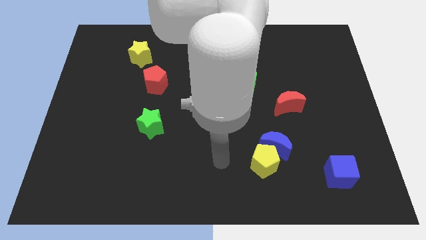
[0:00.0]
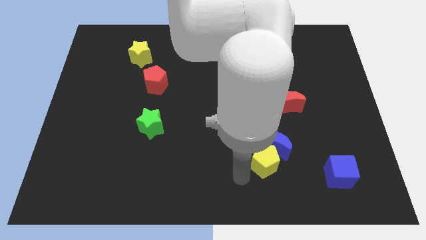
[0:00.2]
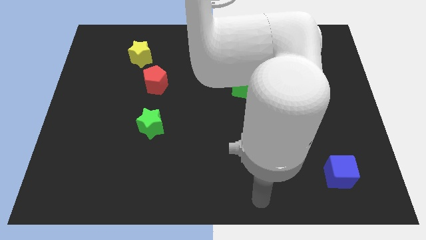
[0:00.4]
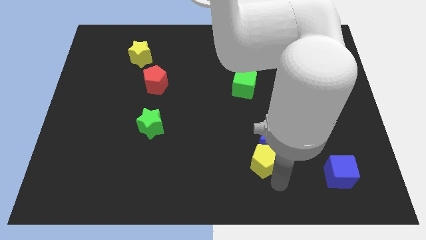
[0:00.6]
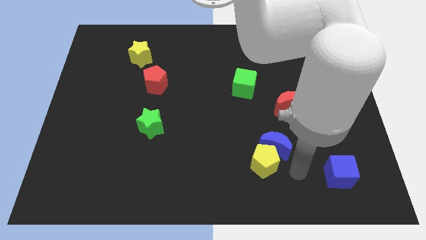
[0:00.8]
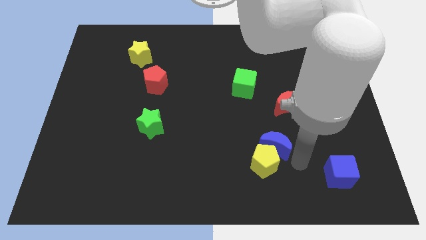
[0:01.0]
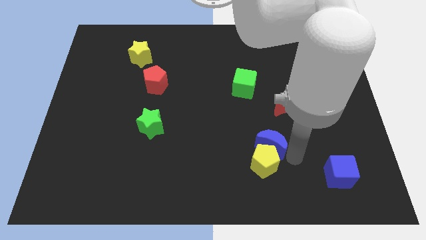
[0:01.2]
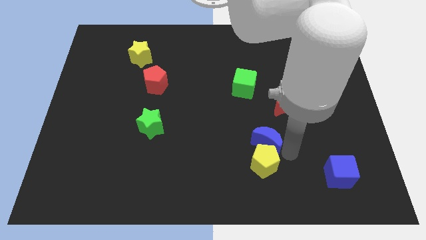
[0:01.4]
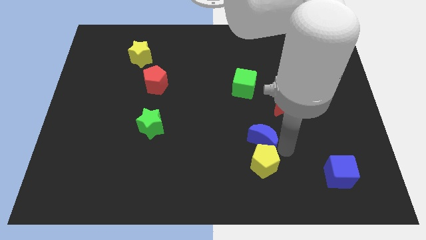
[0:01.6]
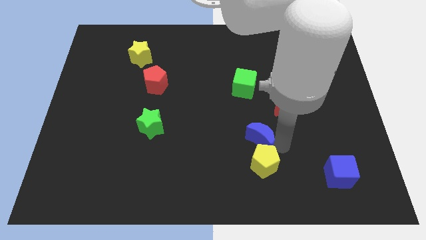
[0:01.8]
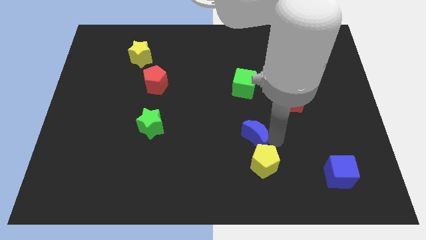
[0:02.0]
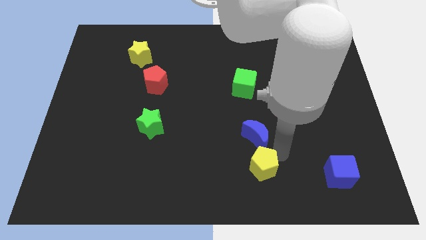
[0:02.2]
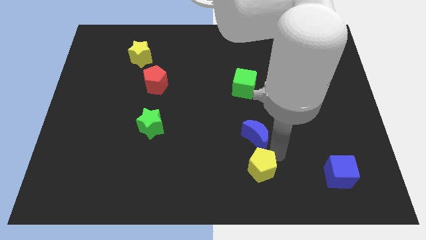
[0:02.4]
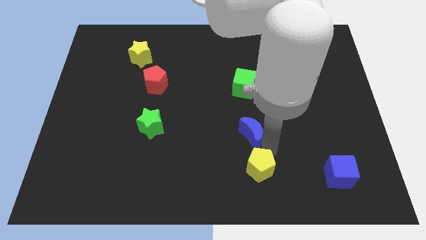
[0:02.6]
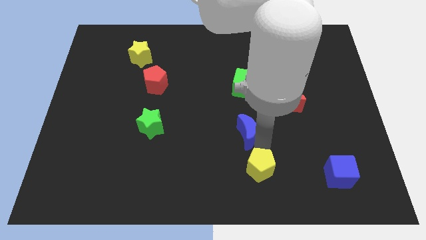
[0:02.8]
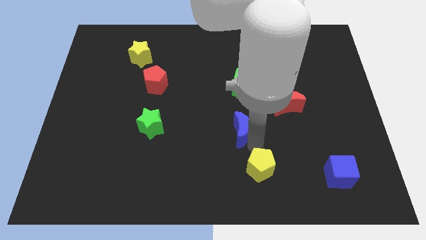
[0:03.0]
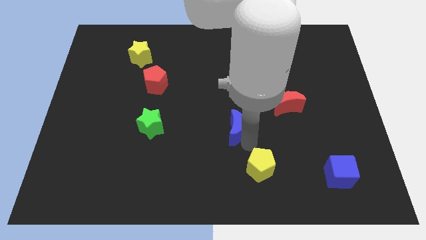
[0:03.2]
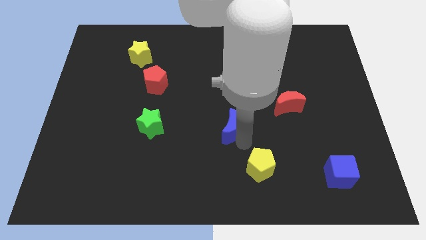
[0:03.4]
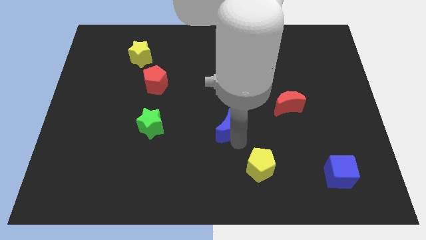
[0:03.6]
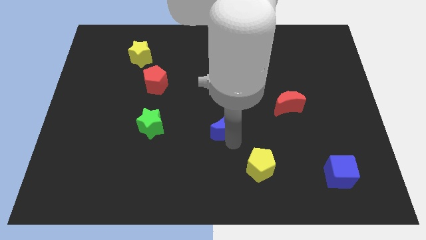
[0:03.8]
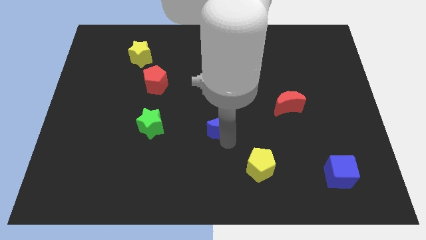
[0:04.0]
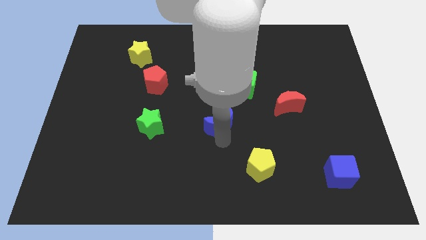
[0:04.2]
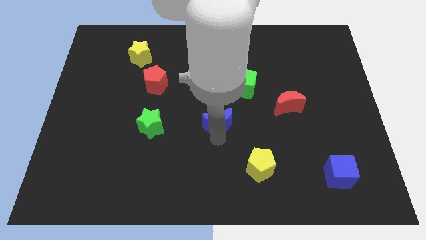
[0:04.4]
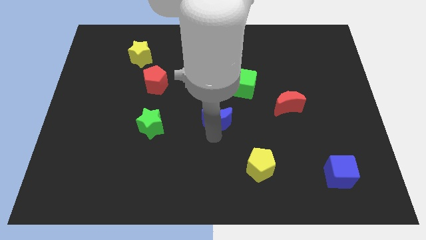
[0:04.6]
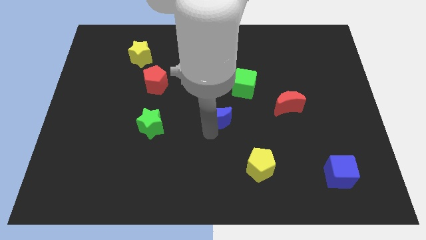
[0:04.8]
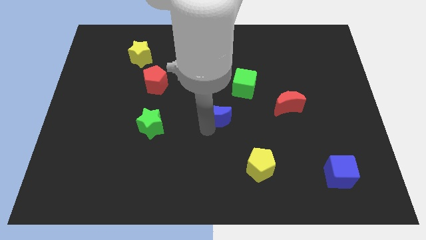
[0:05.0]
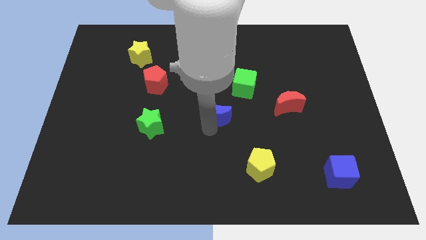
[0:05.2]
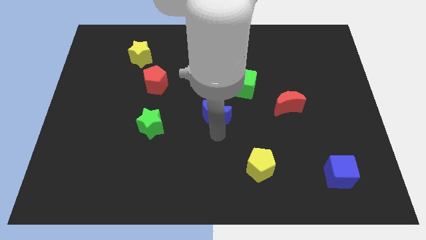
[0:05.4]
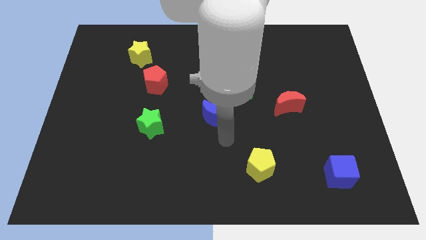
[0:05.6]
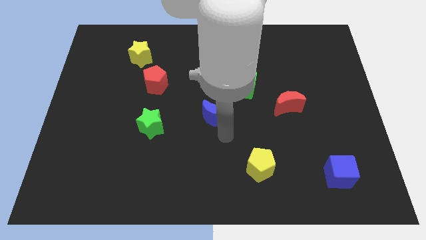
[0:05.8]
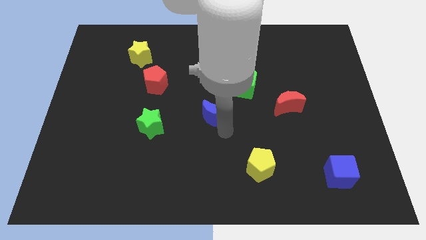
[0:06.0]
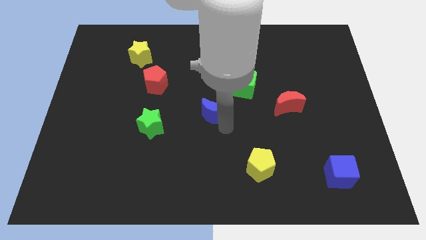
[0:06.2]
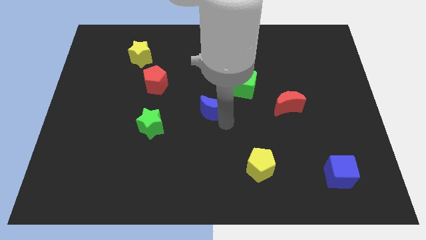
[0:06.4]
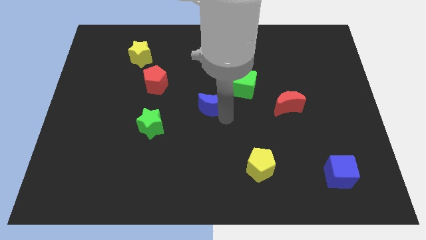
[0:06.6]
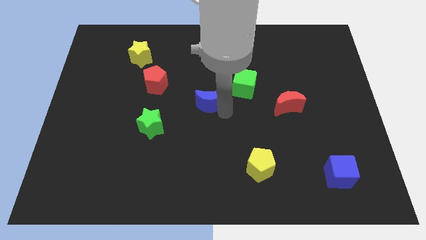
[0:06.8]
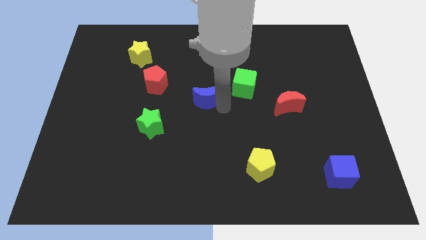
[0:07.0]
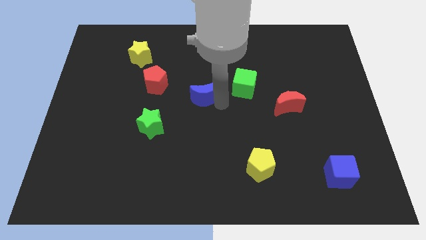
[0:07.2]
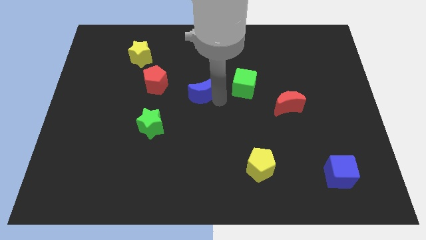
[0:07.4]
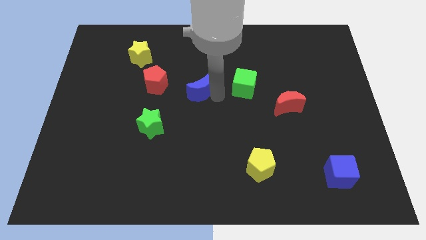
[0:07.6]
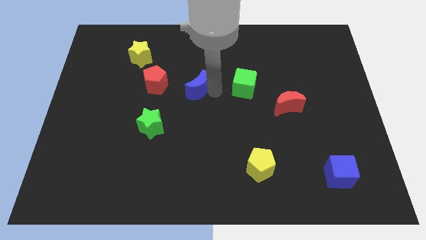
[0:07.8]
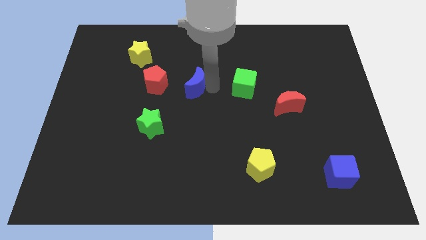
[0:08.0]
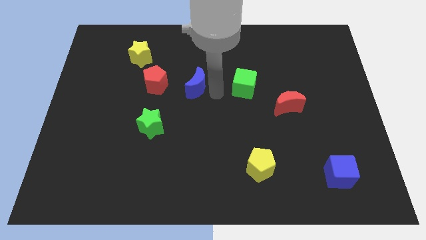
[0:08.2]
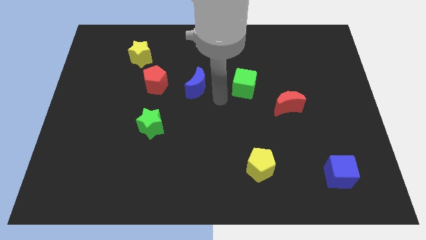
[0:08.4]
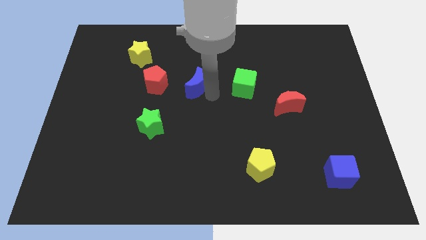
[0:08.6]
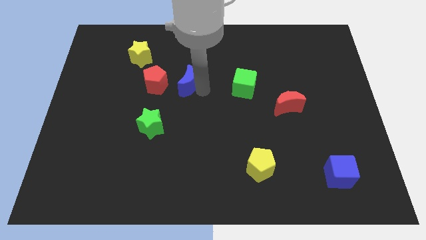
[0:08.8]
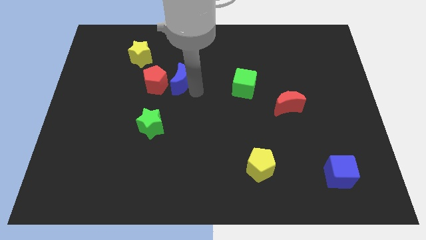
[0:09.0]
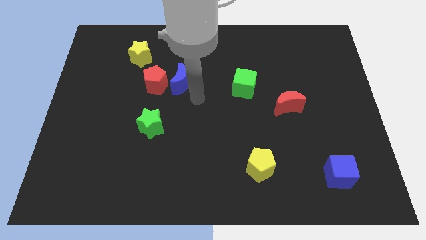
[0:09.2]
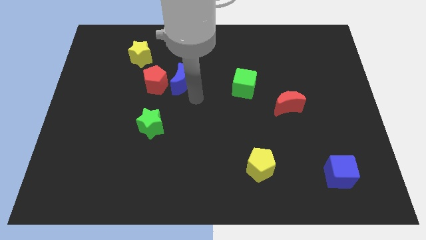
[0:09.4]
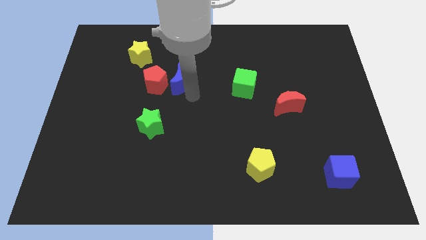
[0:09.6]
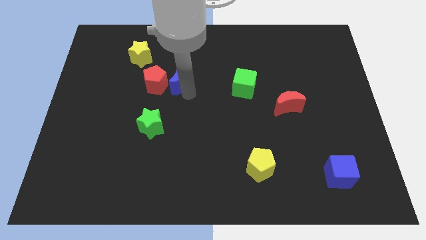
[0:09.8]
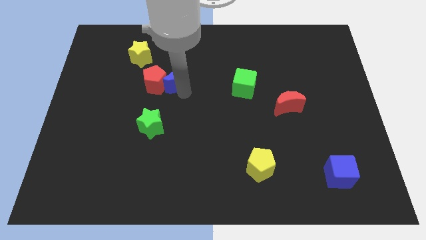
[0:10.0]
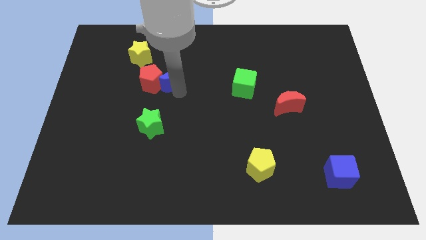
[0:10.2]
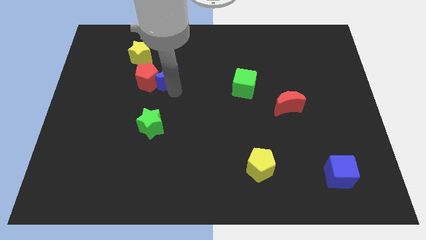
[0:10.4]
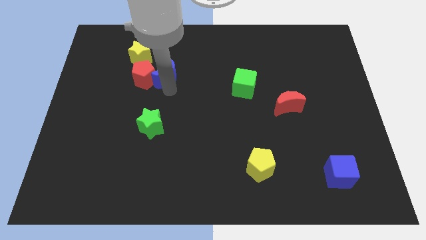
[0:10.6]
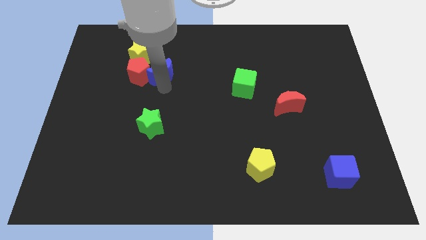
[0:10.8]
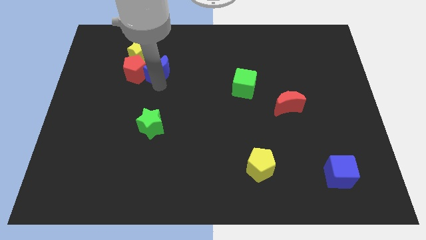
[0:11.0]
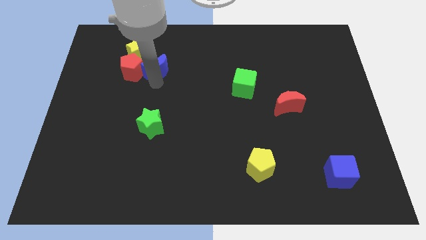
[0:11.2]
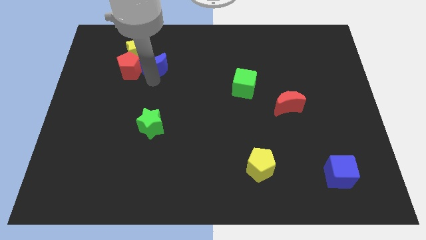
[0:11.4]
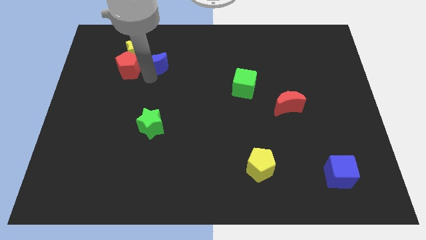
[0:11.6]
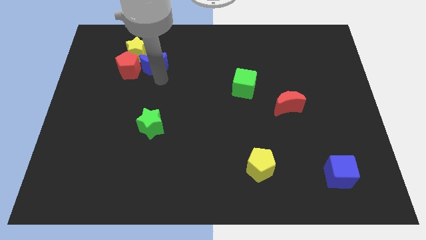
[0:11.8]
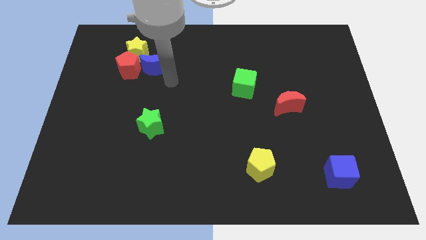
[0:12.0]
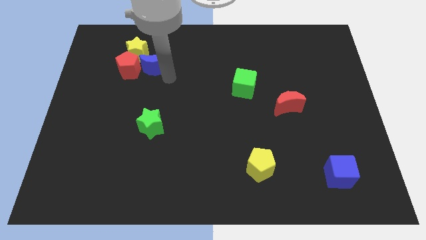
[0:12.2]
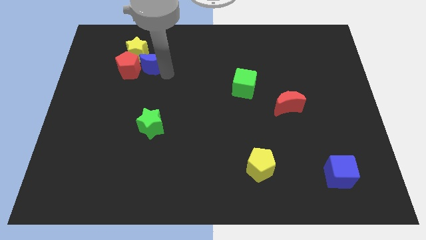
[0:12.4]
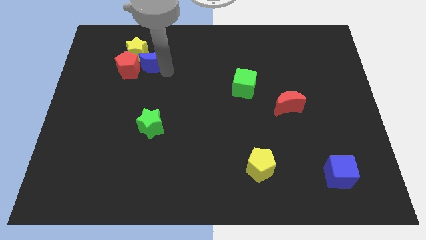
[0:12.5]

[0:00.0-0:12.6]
move the blue moon towards the yellow star

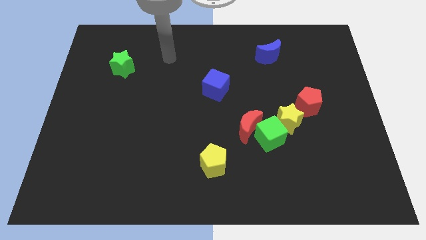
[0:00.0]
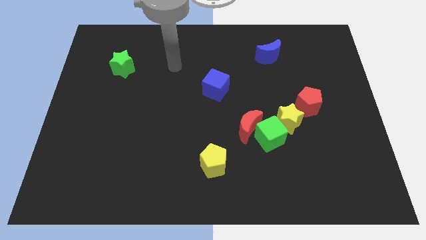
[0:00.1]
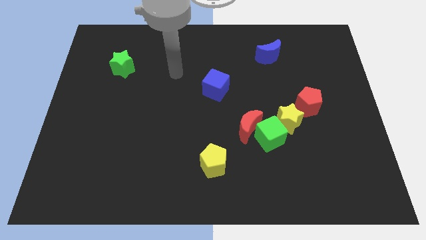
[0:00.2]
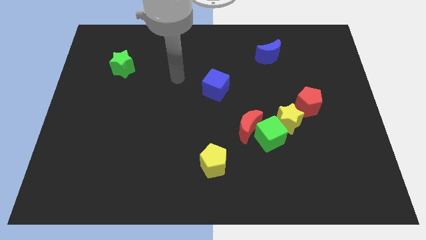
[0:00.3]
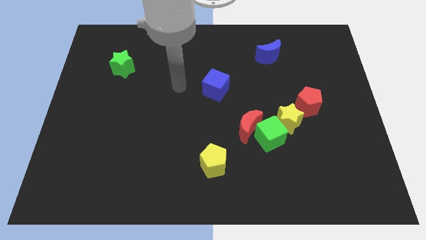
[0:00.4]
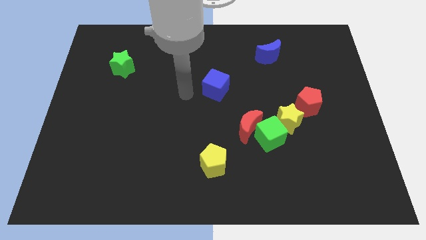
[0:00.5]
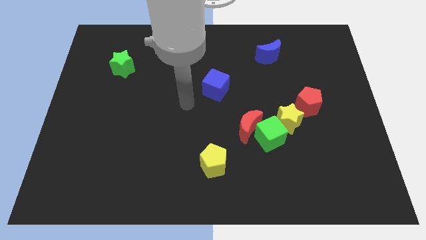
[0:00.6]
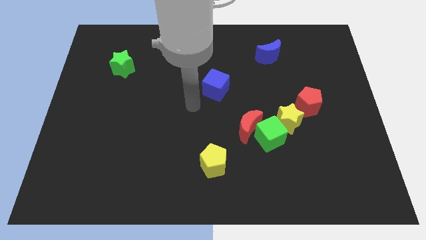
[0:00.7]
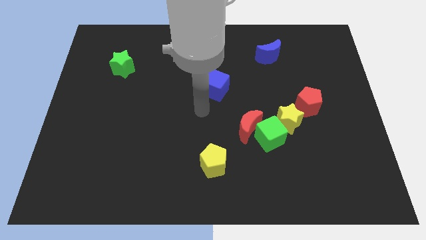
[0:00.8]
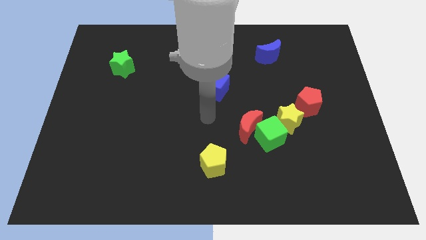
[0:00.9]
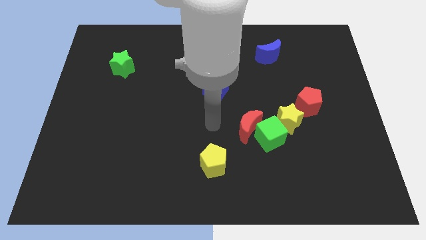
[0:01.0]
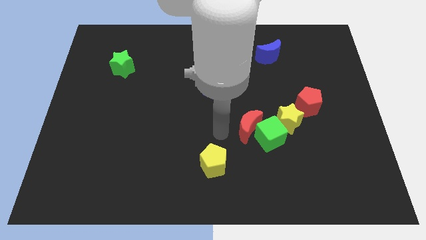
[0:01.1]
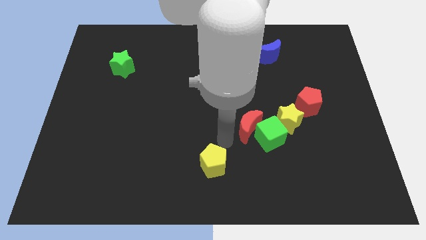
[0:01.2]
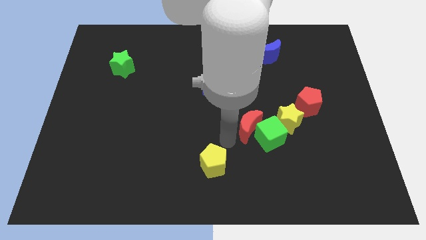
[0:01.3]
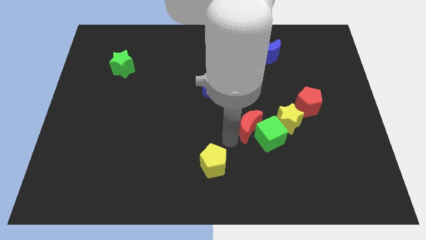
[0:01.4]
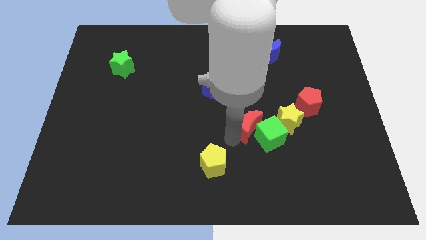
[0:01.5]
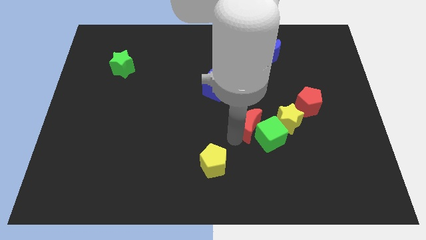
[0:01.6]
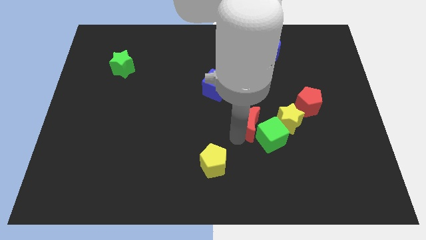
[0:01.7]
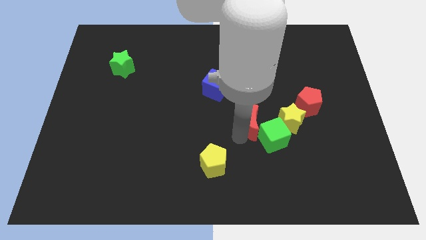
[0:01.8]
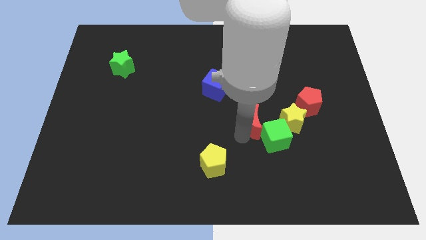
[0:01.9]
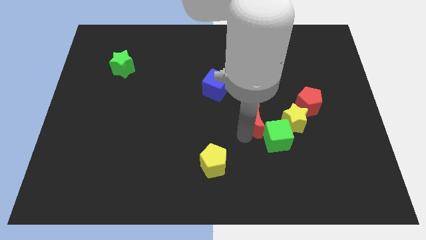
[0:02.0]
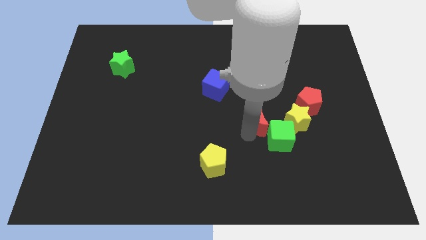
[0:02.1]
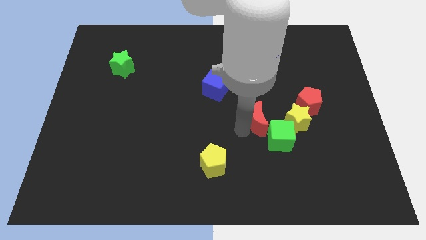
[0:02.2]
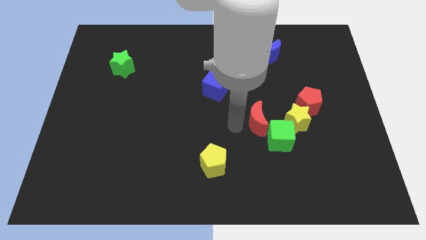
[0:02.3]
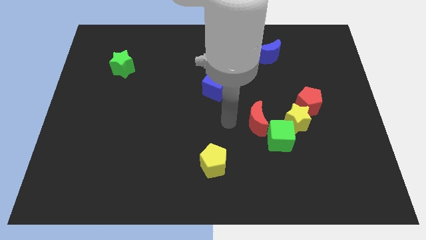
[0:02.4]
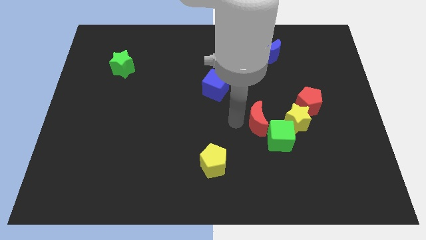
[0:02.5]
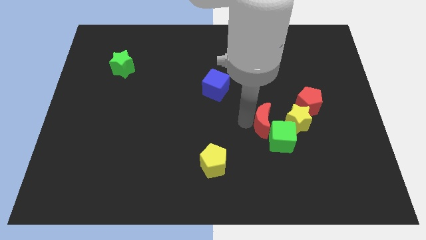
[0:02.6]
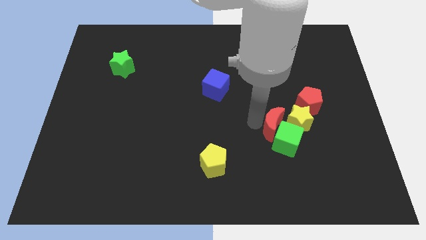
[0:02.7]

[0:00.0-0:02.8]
put the red moon towards the yellow star
